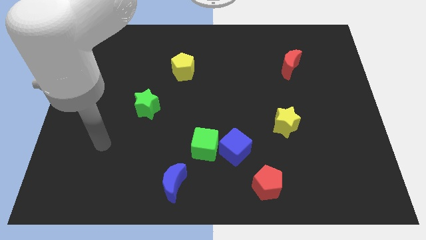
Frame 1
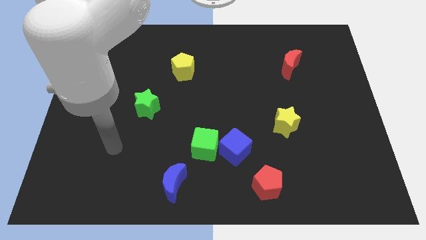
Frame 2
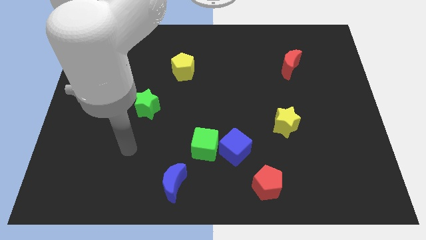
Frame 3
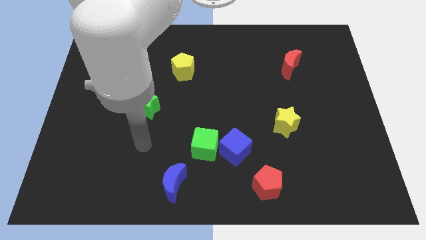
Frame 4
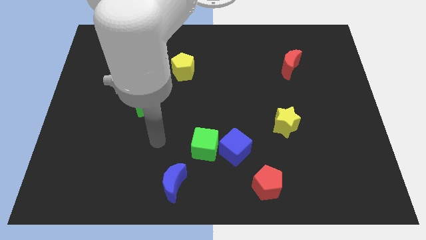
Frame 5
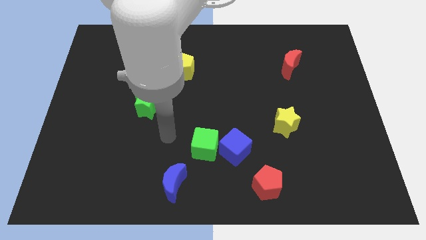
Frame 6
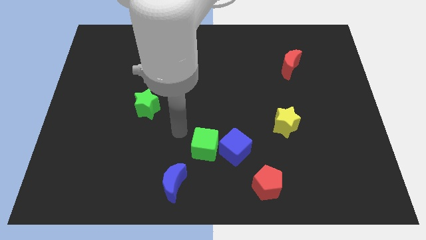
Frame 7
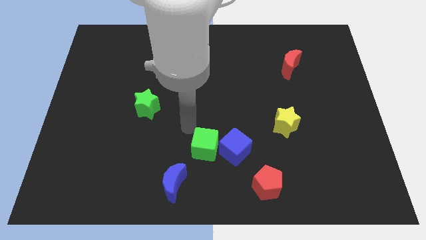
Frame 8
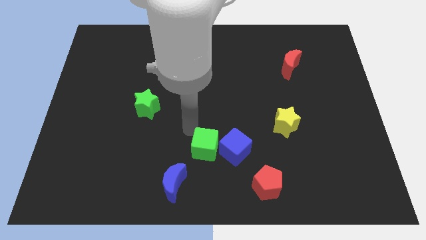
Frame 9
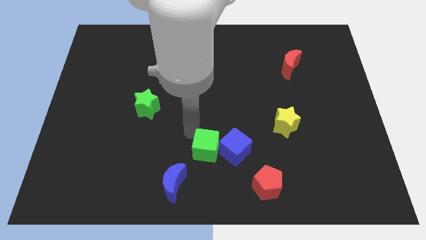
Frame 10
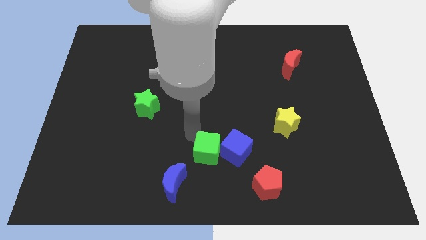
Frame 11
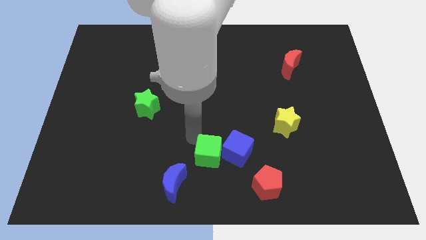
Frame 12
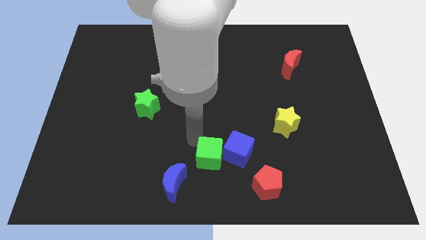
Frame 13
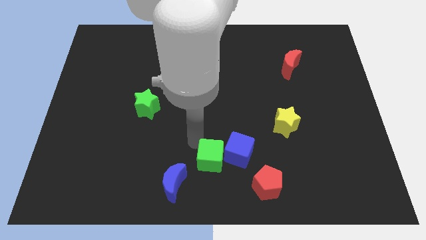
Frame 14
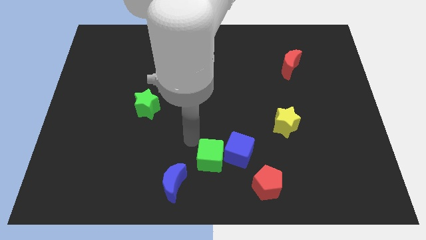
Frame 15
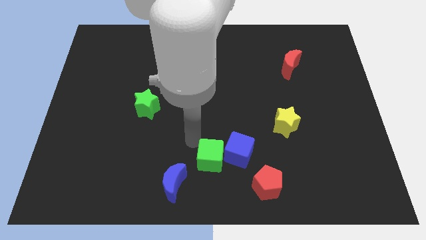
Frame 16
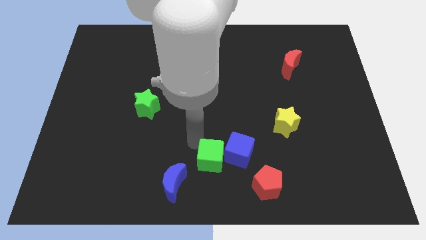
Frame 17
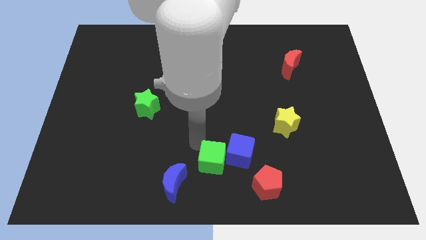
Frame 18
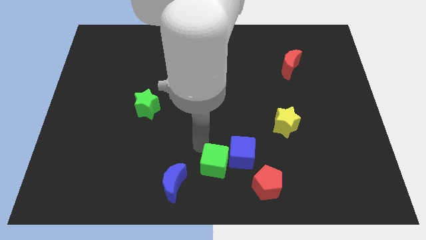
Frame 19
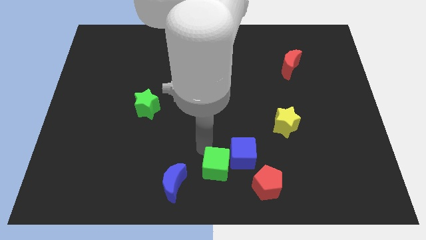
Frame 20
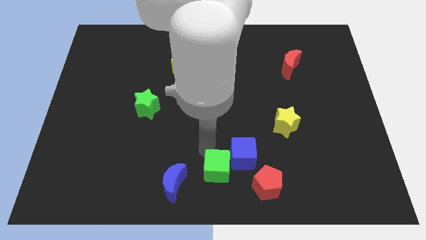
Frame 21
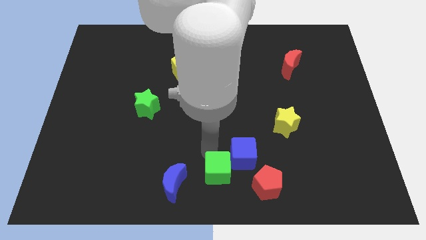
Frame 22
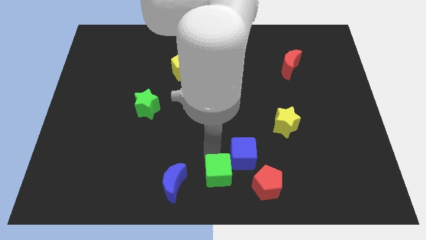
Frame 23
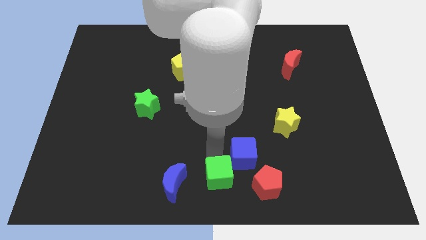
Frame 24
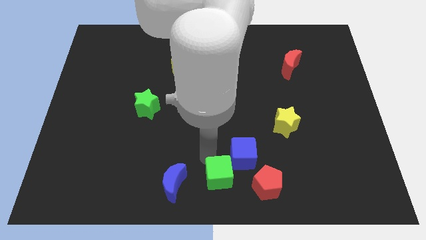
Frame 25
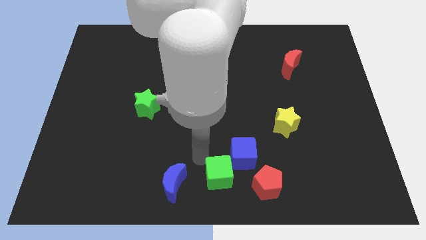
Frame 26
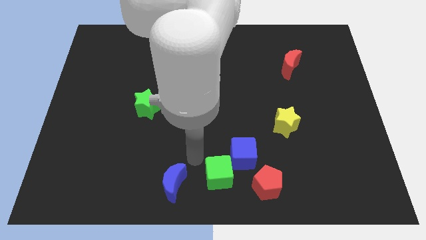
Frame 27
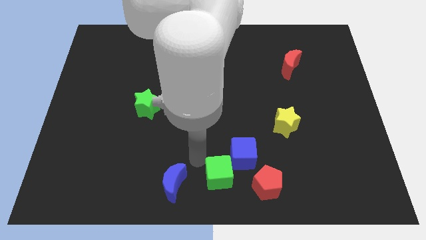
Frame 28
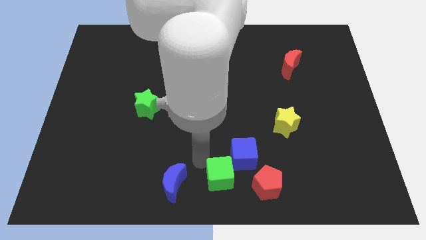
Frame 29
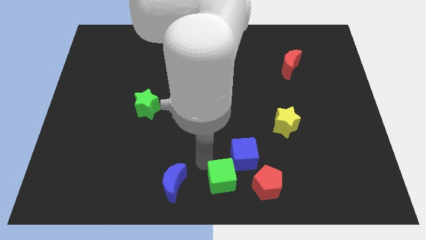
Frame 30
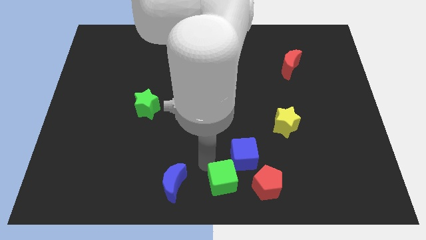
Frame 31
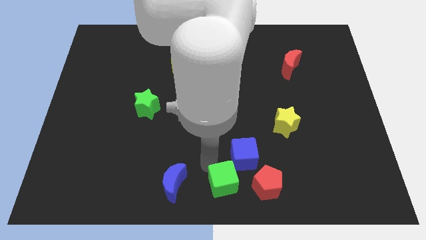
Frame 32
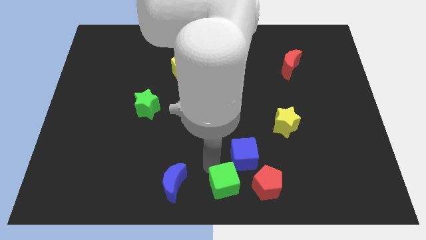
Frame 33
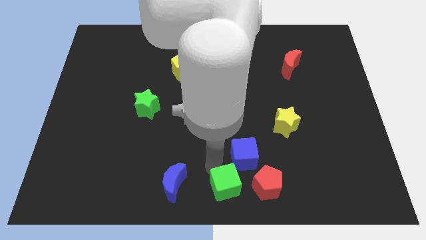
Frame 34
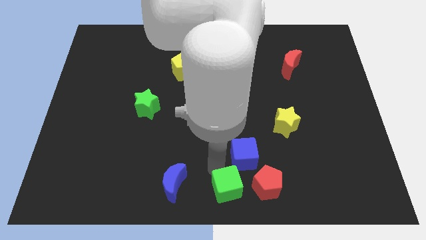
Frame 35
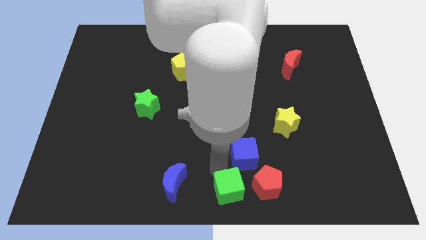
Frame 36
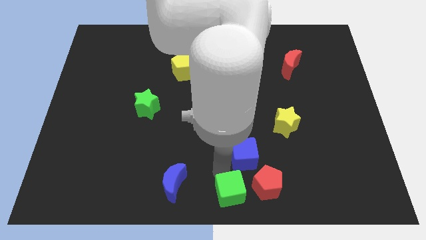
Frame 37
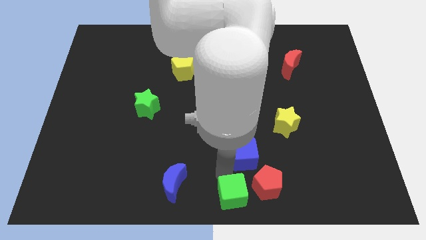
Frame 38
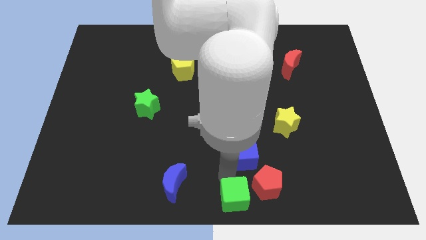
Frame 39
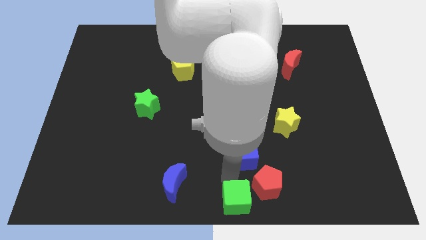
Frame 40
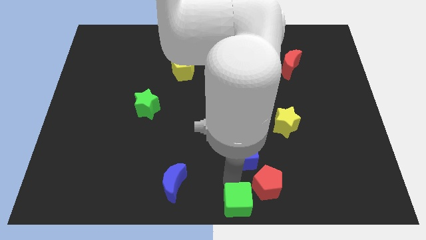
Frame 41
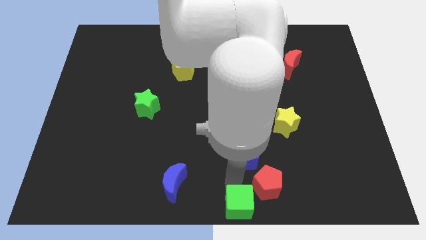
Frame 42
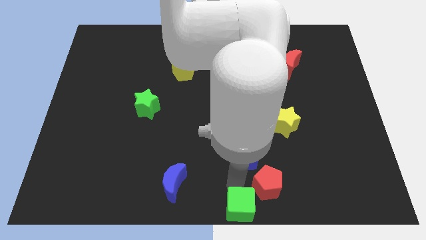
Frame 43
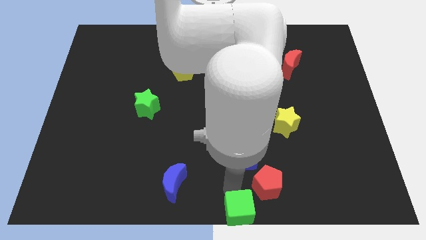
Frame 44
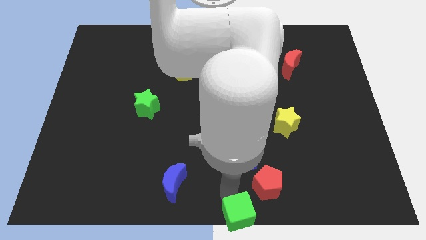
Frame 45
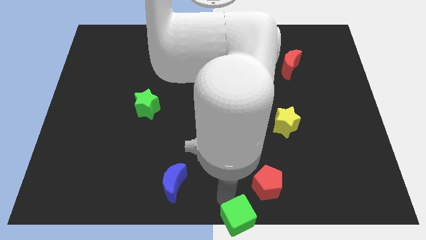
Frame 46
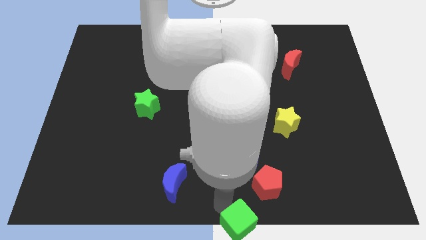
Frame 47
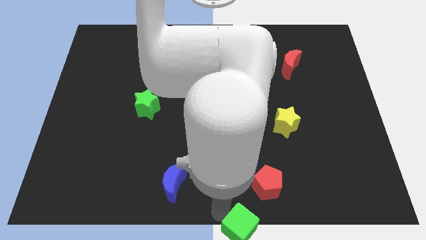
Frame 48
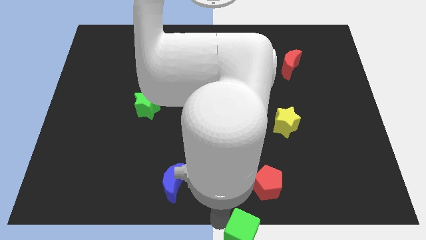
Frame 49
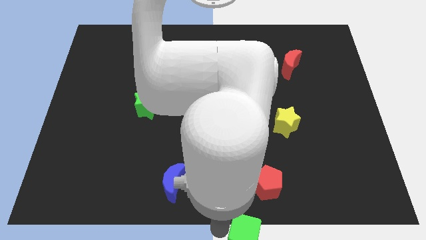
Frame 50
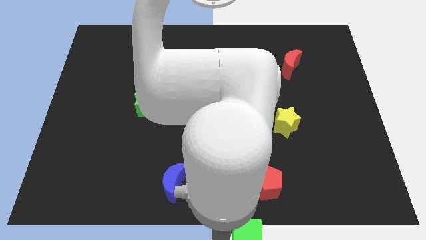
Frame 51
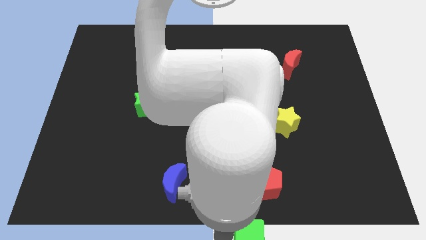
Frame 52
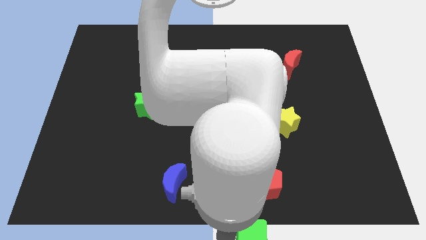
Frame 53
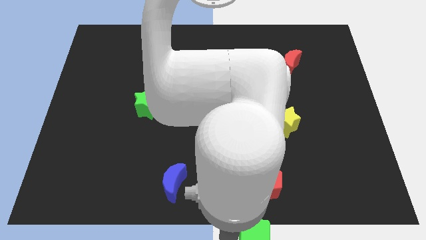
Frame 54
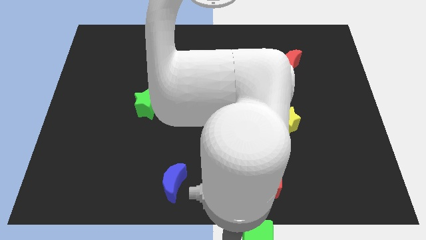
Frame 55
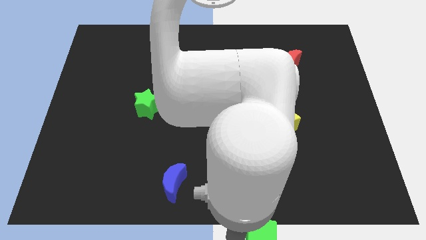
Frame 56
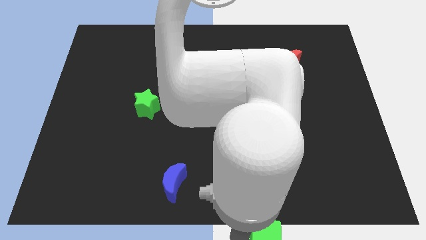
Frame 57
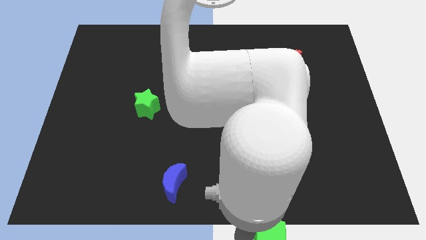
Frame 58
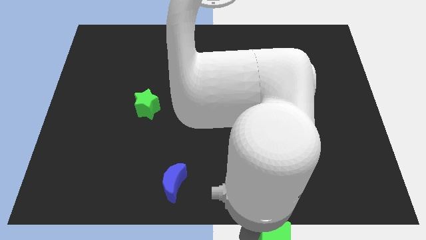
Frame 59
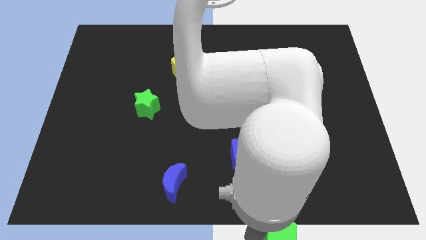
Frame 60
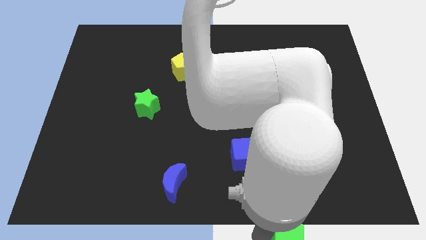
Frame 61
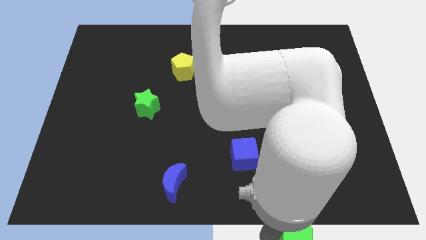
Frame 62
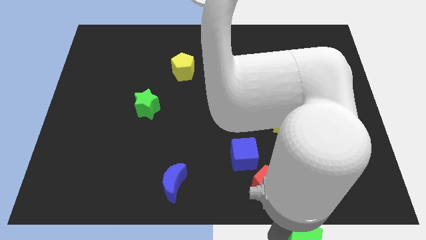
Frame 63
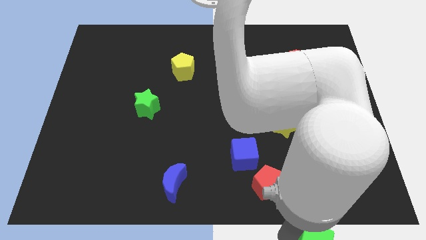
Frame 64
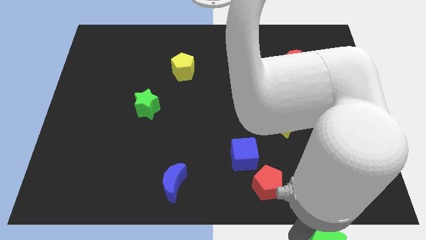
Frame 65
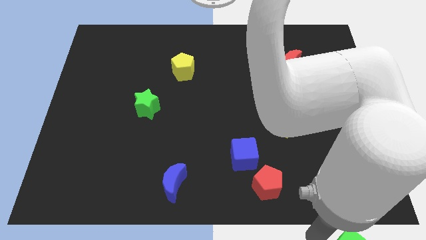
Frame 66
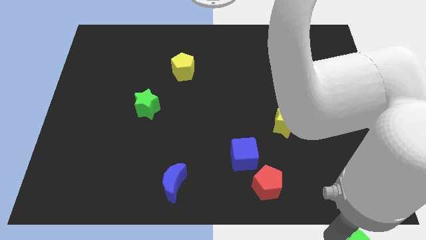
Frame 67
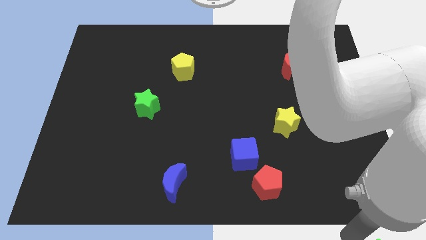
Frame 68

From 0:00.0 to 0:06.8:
slide the green cube to the bottom right of the board
